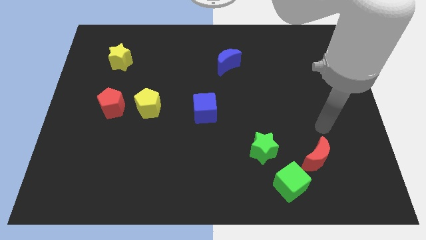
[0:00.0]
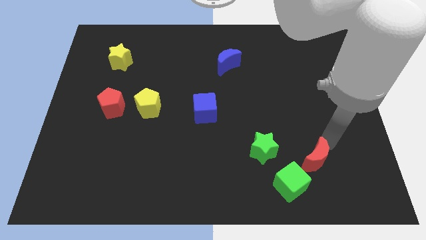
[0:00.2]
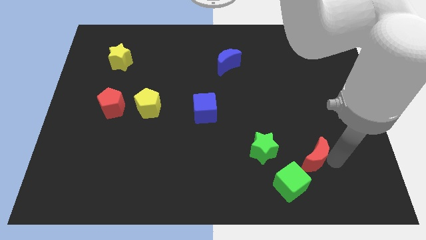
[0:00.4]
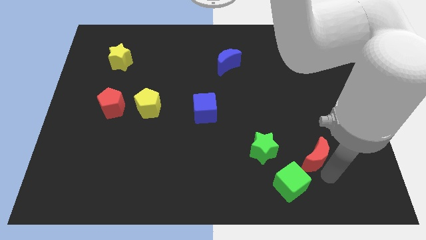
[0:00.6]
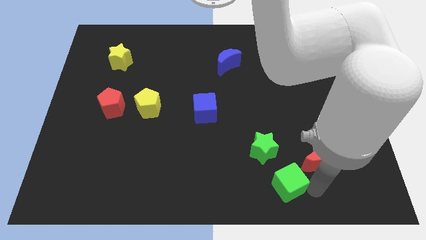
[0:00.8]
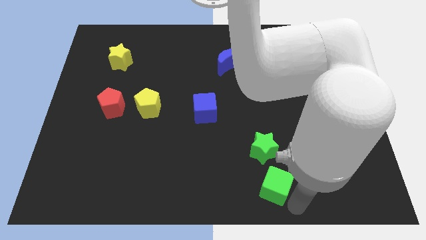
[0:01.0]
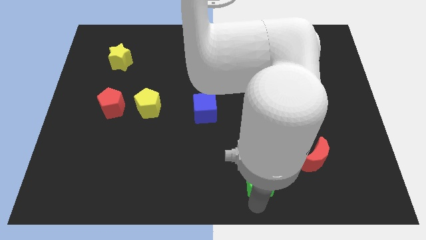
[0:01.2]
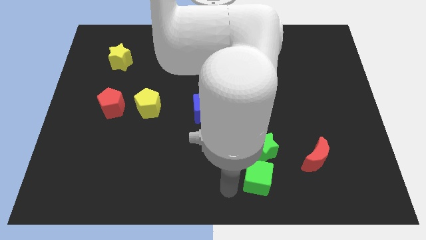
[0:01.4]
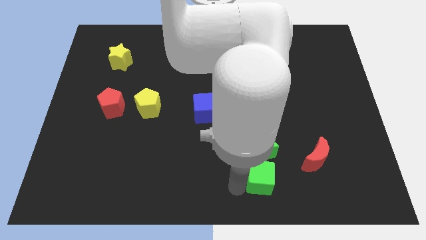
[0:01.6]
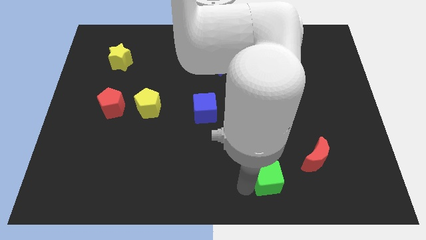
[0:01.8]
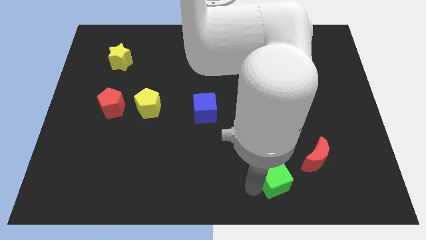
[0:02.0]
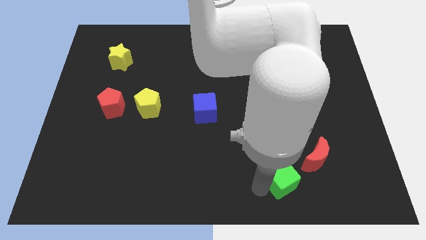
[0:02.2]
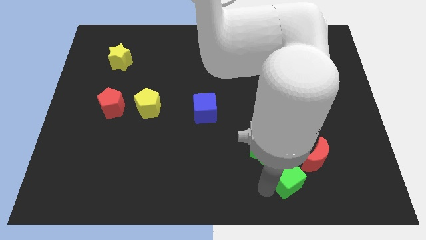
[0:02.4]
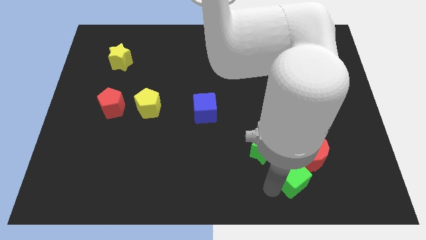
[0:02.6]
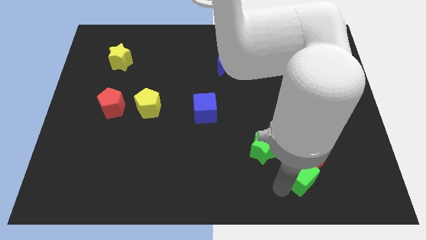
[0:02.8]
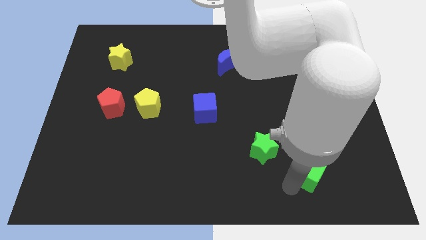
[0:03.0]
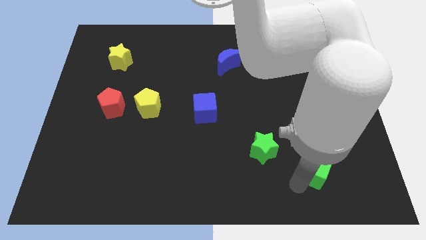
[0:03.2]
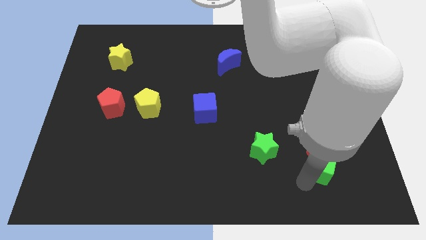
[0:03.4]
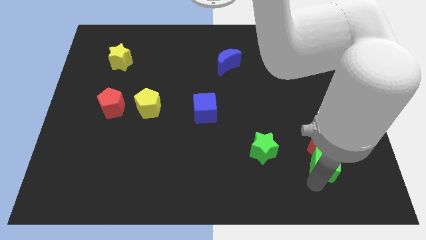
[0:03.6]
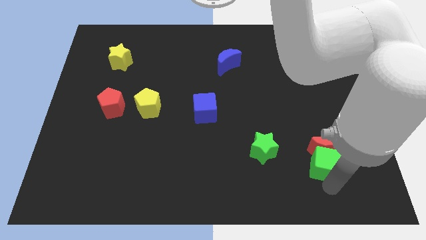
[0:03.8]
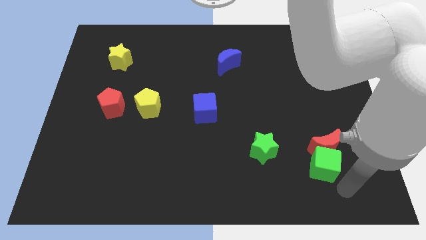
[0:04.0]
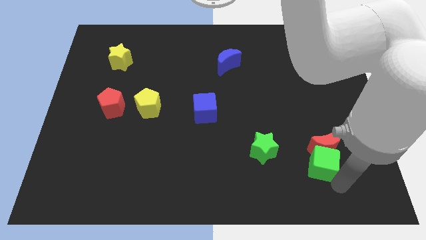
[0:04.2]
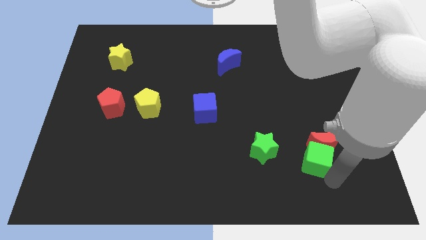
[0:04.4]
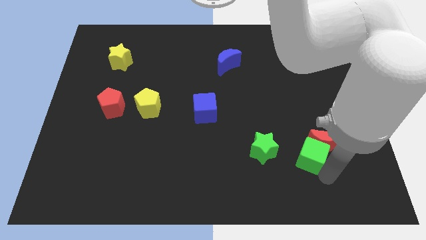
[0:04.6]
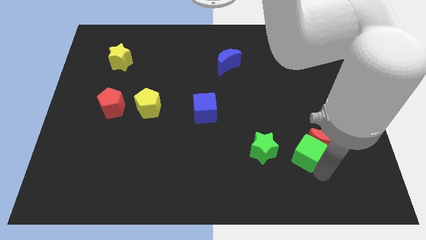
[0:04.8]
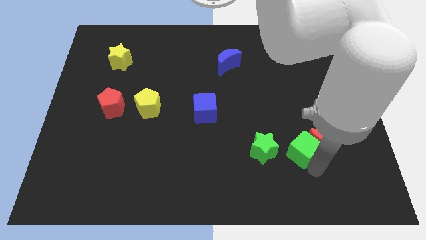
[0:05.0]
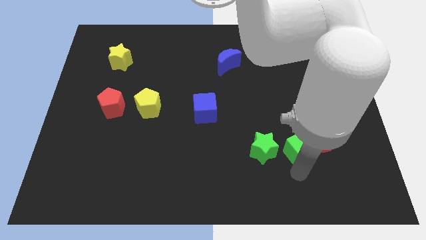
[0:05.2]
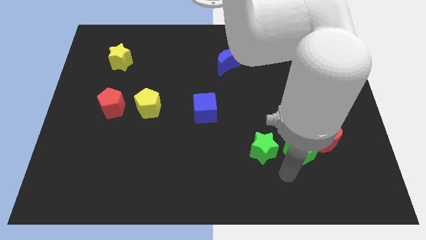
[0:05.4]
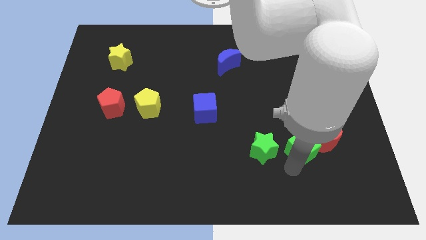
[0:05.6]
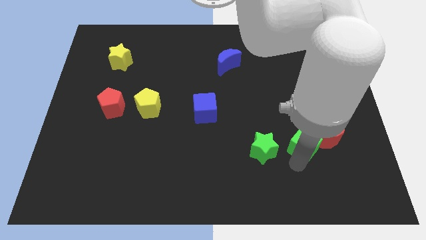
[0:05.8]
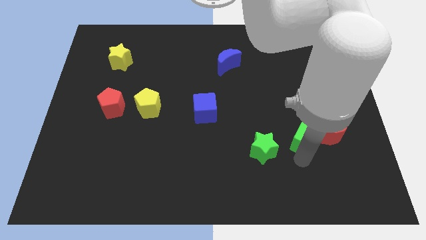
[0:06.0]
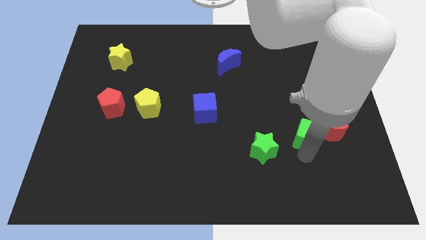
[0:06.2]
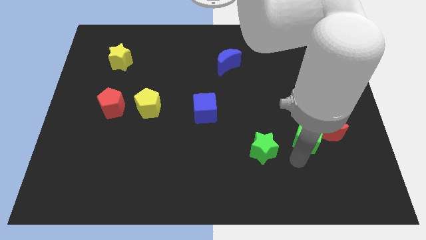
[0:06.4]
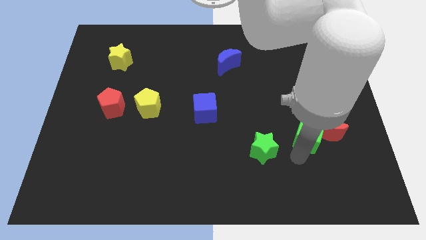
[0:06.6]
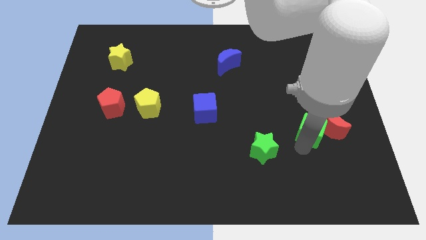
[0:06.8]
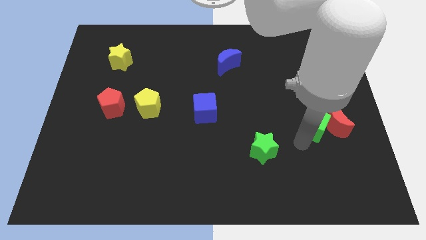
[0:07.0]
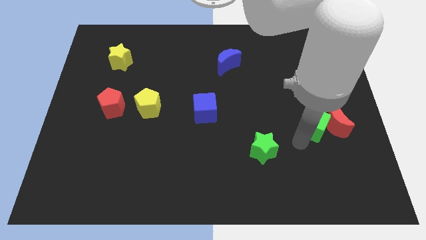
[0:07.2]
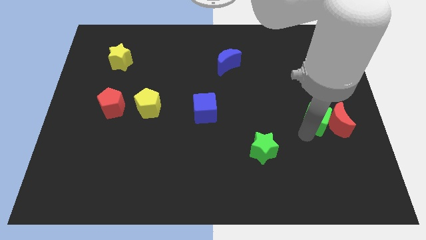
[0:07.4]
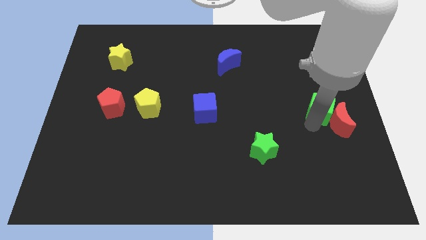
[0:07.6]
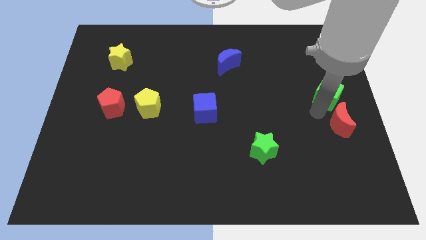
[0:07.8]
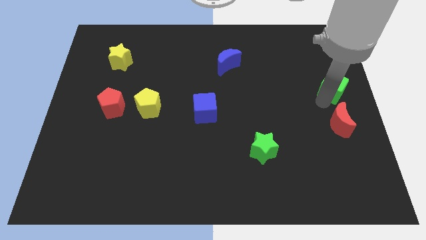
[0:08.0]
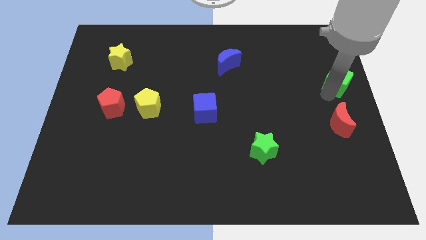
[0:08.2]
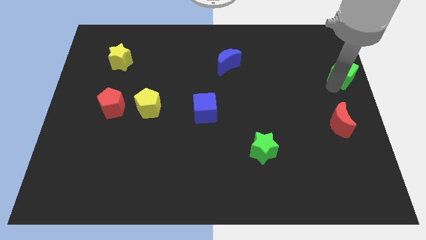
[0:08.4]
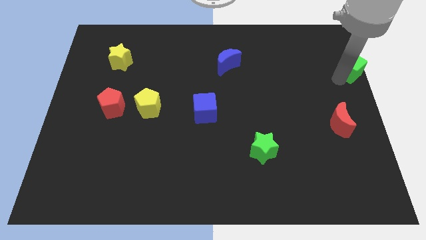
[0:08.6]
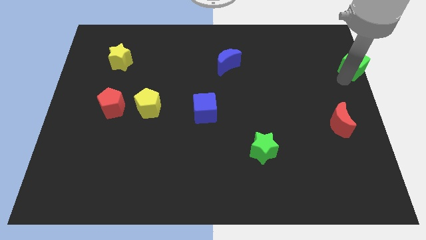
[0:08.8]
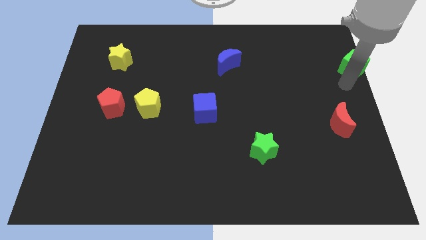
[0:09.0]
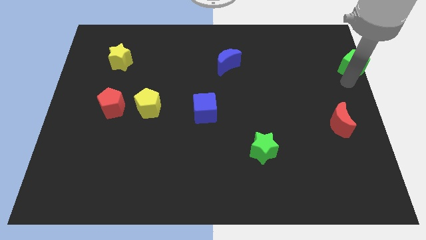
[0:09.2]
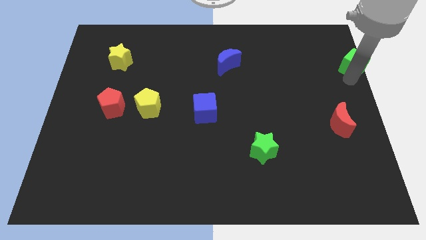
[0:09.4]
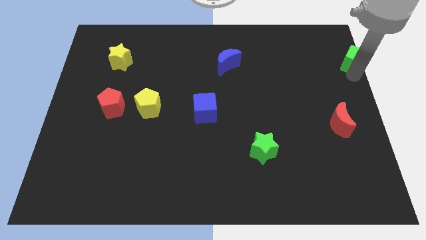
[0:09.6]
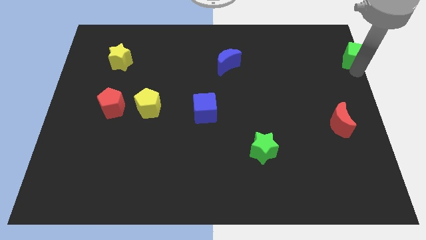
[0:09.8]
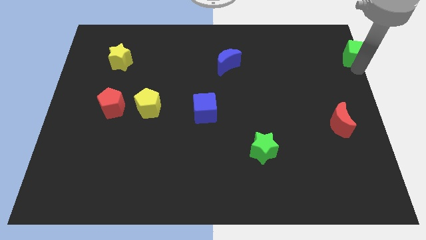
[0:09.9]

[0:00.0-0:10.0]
put the green cube to the top right

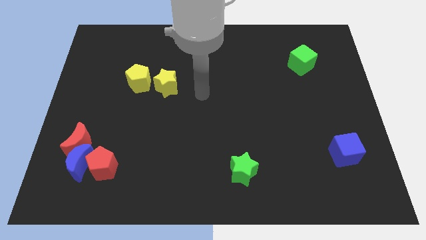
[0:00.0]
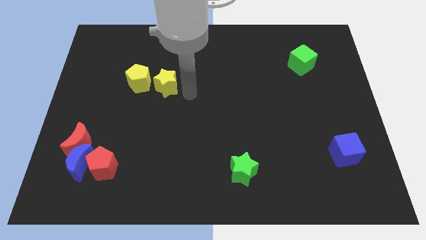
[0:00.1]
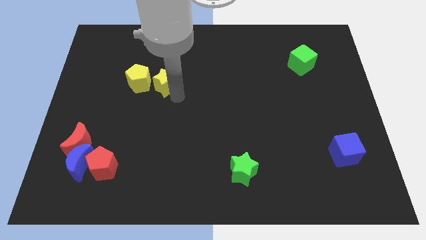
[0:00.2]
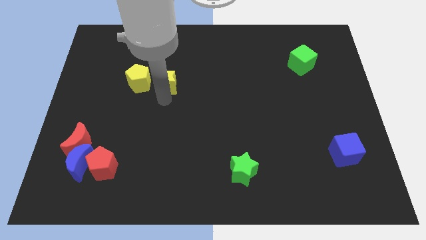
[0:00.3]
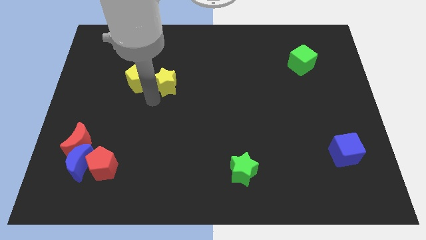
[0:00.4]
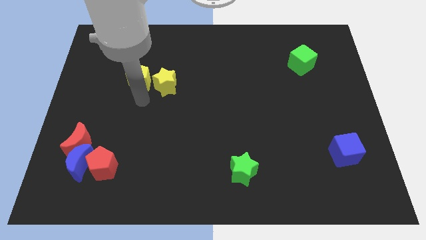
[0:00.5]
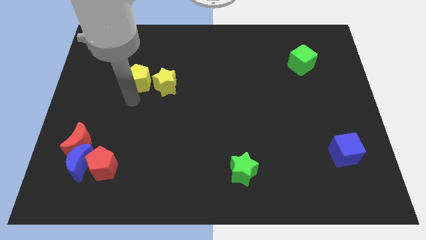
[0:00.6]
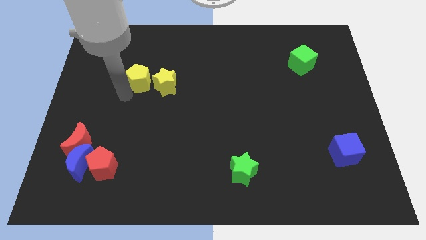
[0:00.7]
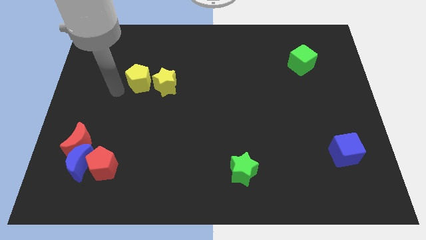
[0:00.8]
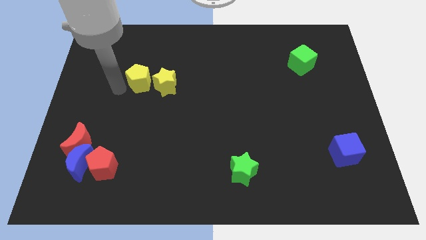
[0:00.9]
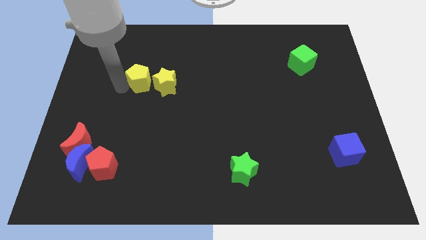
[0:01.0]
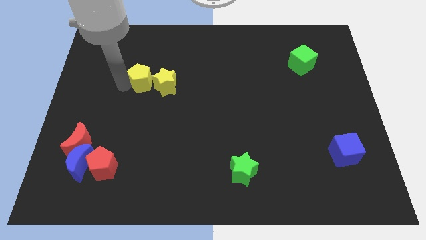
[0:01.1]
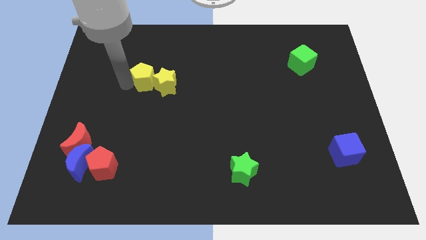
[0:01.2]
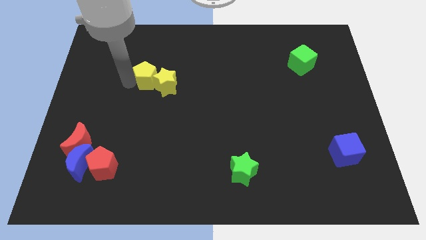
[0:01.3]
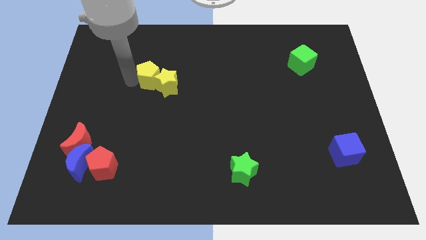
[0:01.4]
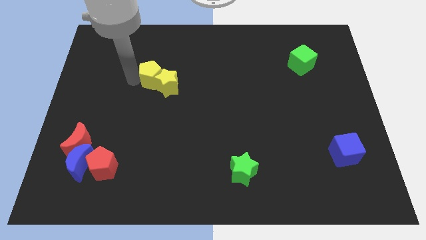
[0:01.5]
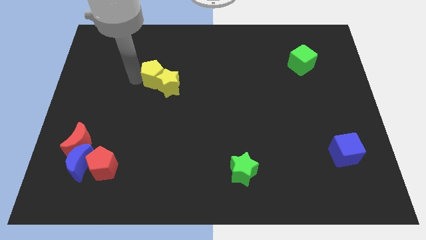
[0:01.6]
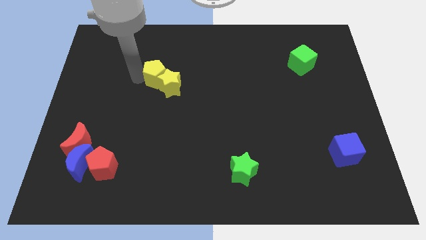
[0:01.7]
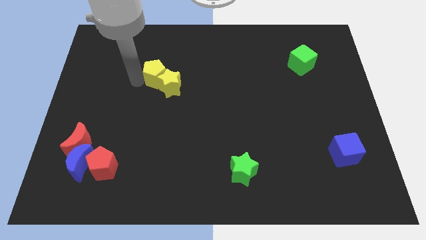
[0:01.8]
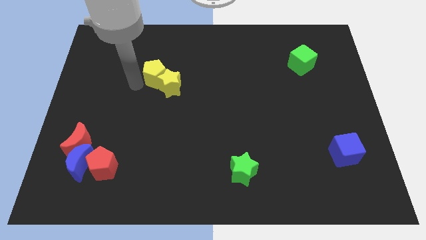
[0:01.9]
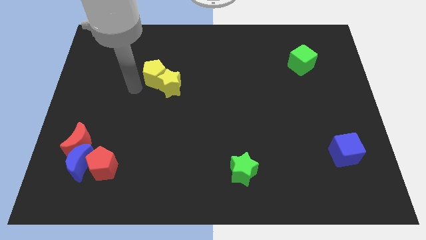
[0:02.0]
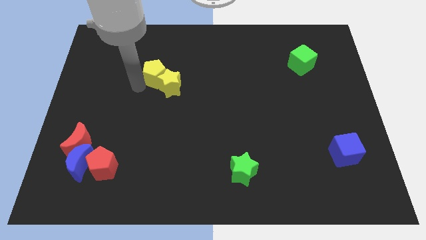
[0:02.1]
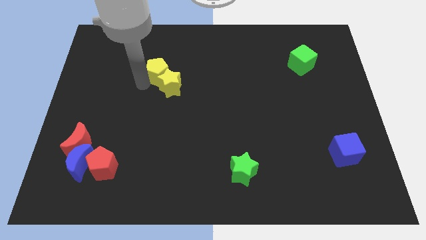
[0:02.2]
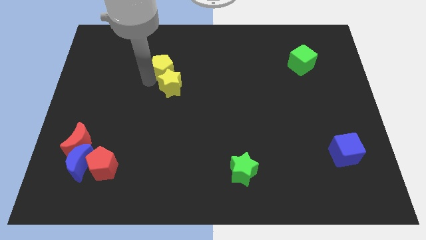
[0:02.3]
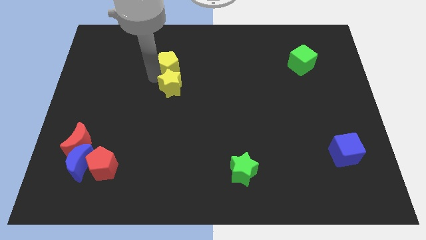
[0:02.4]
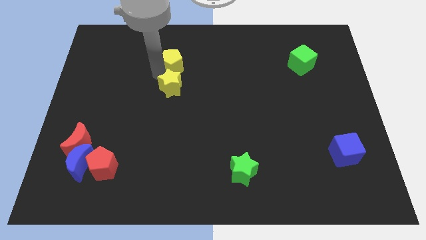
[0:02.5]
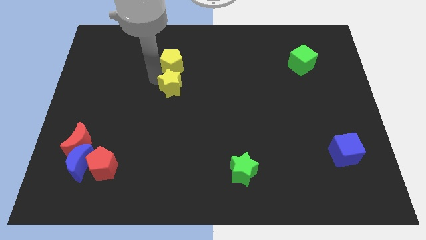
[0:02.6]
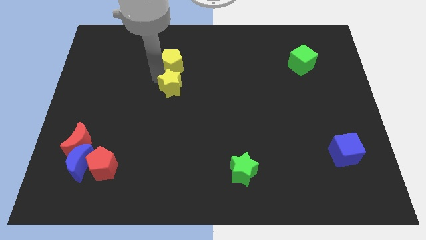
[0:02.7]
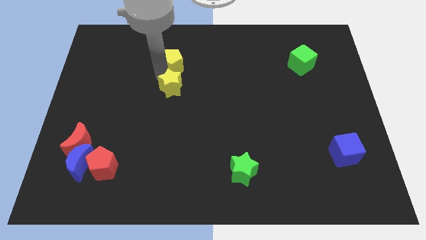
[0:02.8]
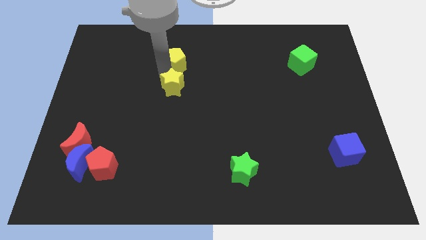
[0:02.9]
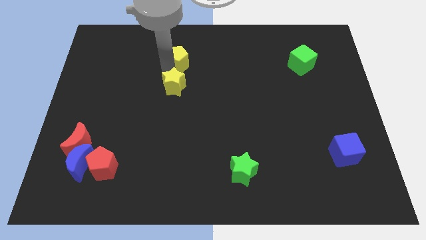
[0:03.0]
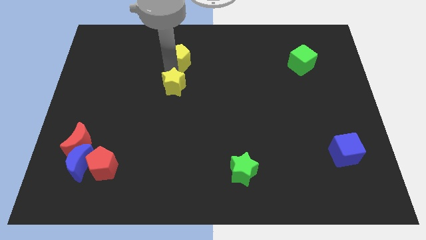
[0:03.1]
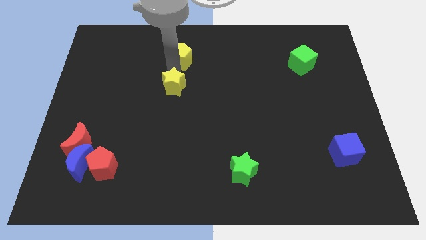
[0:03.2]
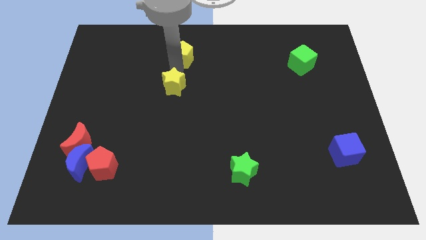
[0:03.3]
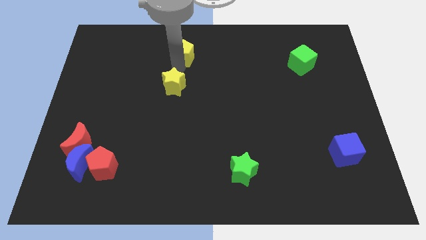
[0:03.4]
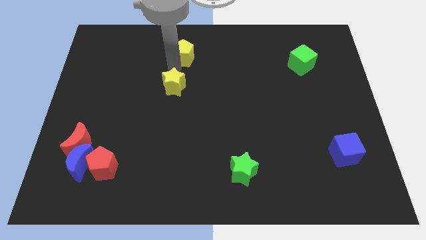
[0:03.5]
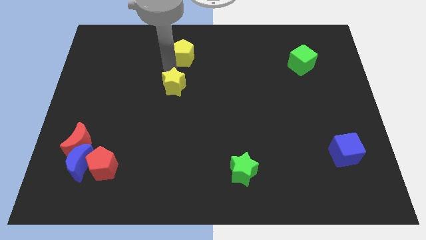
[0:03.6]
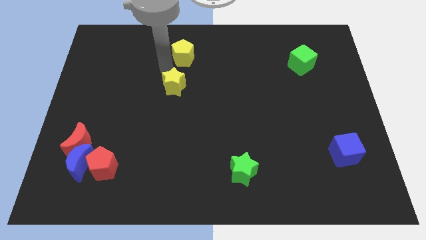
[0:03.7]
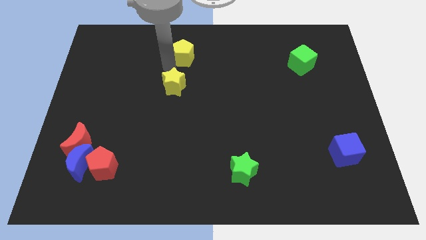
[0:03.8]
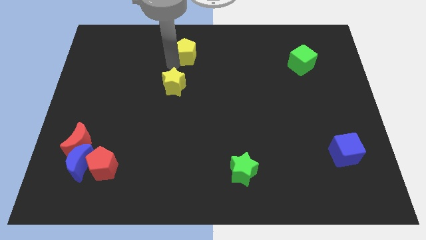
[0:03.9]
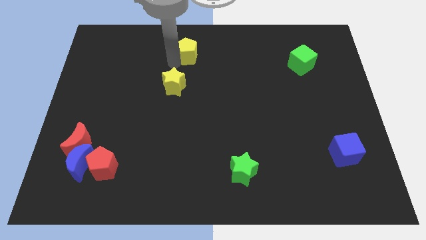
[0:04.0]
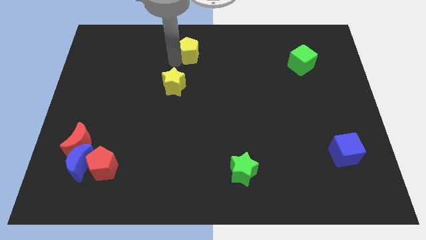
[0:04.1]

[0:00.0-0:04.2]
put the yellow pentagon to the top side
